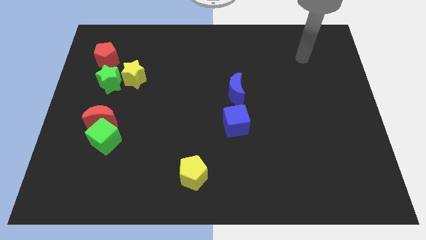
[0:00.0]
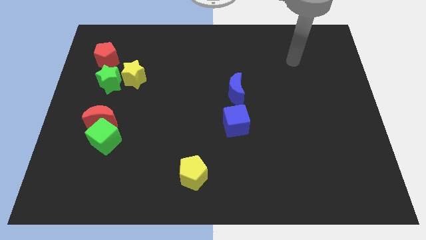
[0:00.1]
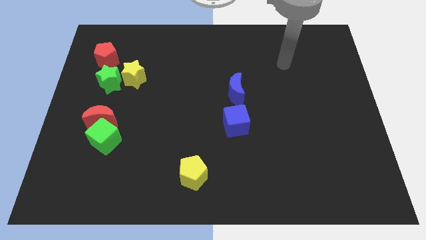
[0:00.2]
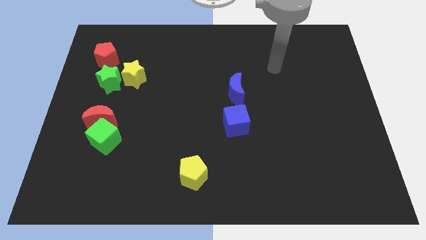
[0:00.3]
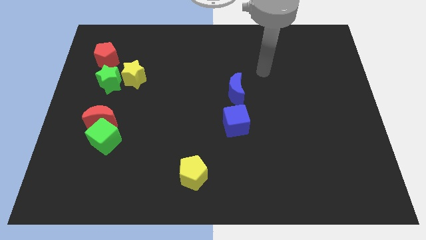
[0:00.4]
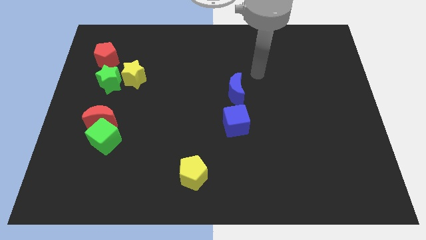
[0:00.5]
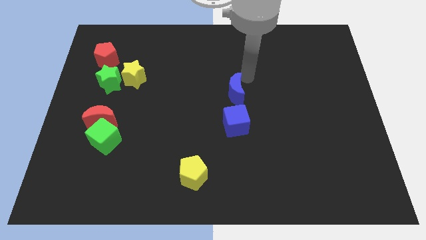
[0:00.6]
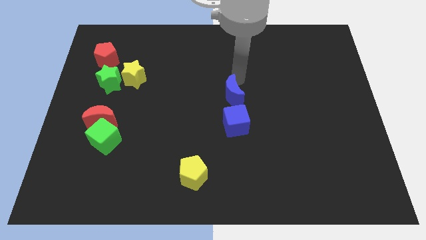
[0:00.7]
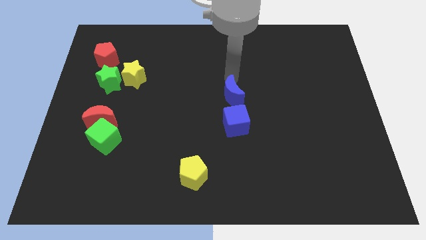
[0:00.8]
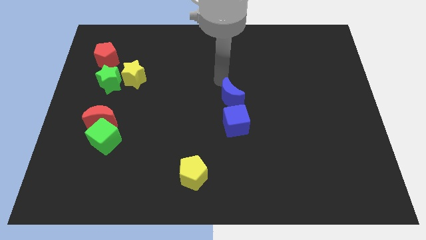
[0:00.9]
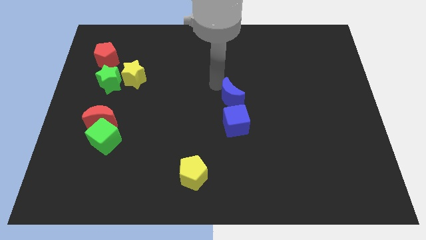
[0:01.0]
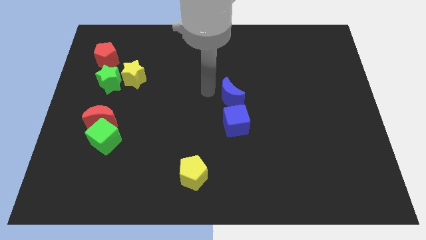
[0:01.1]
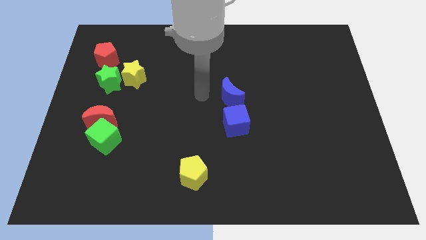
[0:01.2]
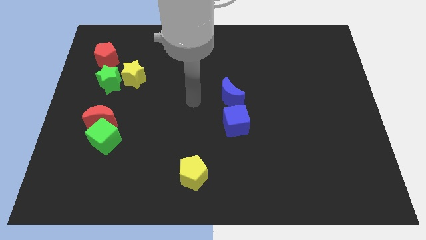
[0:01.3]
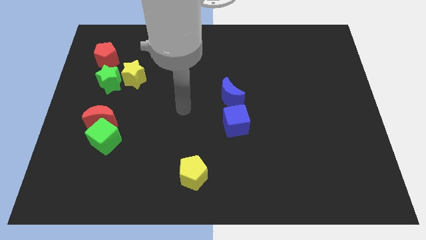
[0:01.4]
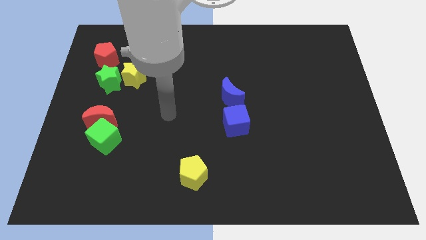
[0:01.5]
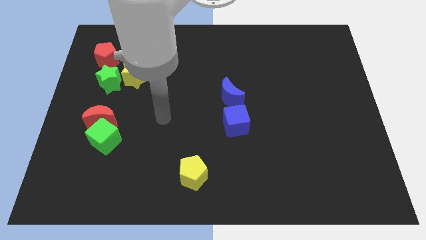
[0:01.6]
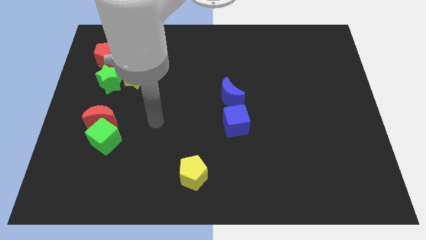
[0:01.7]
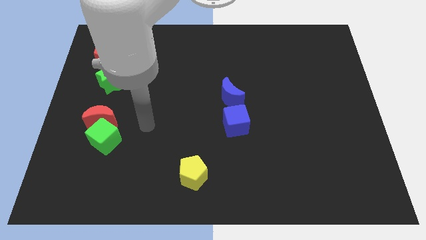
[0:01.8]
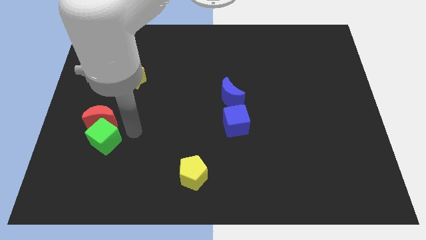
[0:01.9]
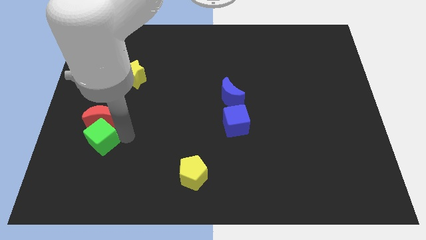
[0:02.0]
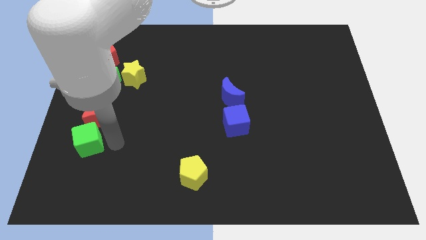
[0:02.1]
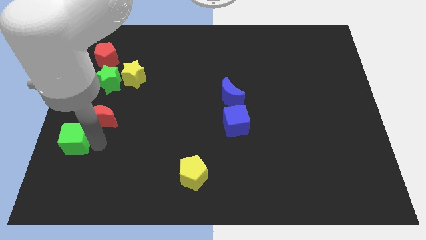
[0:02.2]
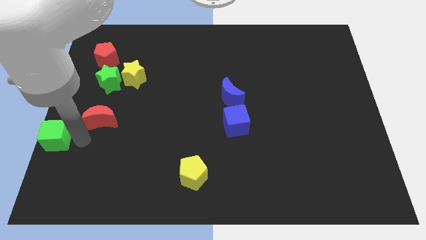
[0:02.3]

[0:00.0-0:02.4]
pull the red moon apart from the green cube

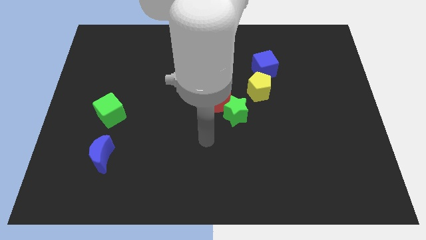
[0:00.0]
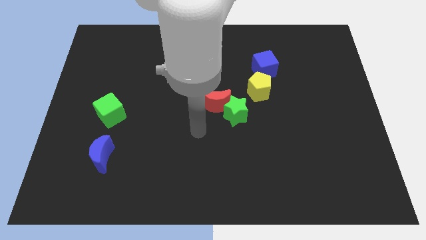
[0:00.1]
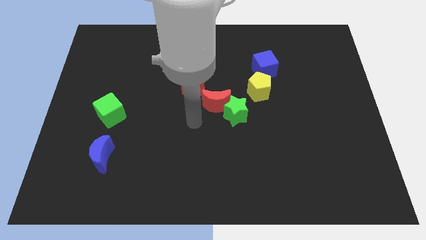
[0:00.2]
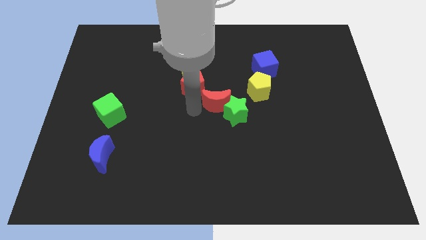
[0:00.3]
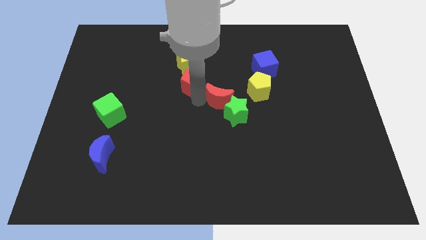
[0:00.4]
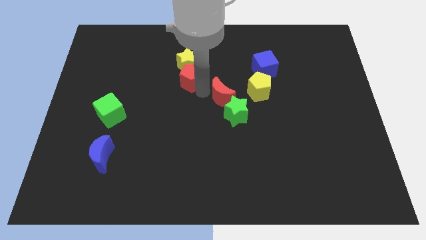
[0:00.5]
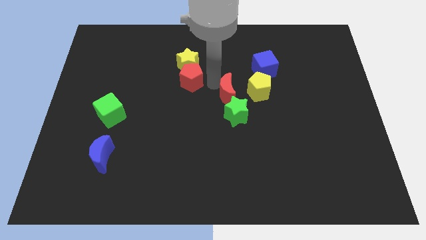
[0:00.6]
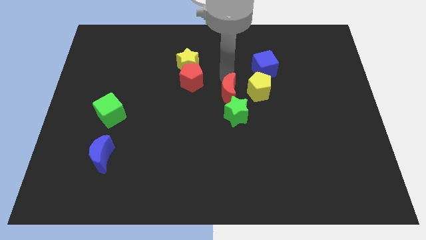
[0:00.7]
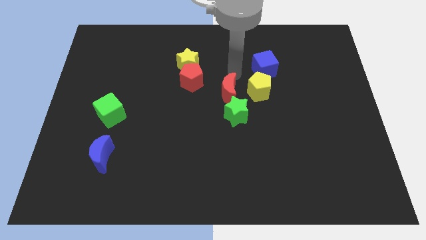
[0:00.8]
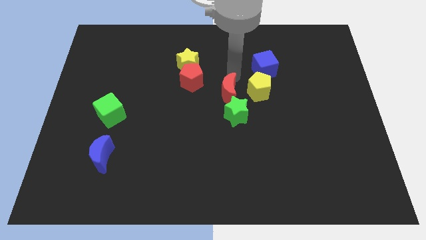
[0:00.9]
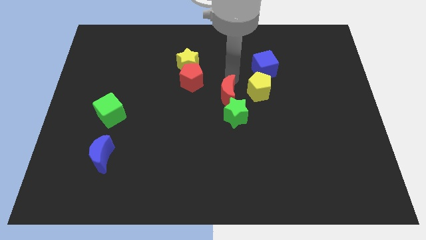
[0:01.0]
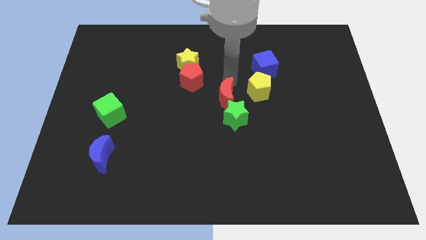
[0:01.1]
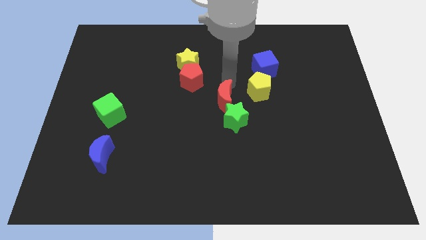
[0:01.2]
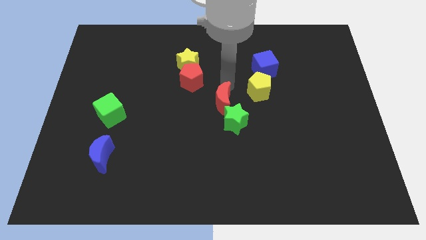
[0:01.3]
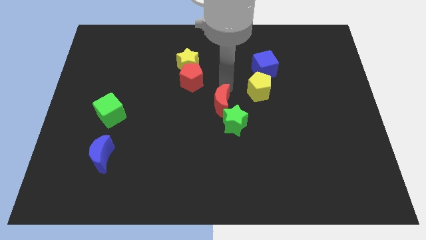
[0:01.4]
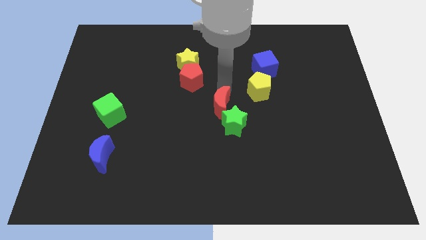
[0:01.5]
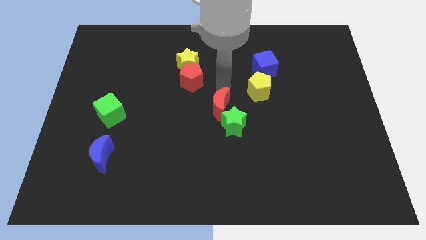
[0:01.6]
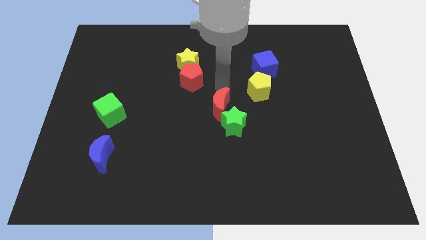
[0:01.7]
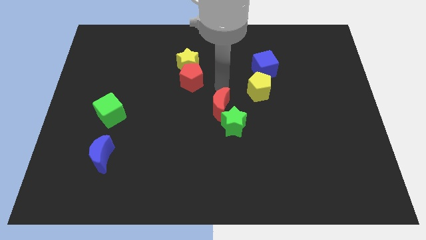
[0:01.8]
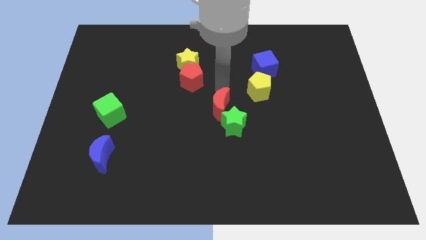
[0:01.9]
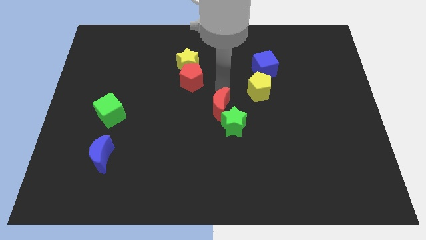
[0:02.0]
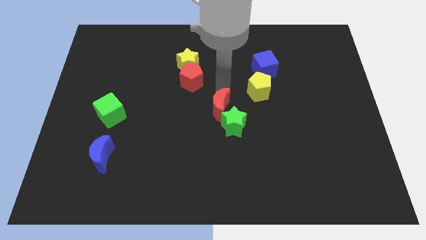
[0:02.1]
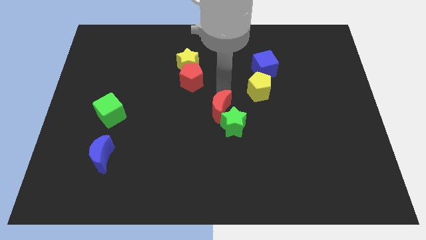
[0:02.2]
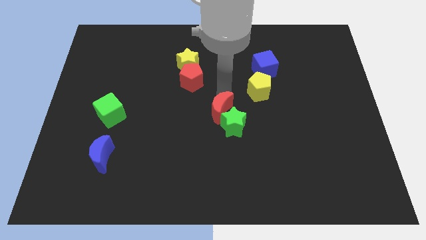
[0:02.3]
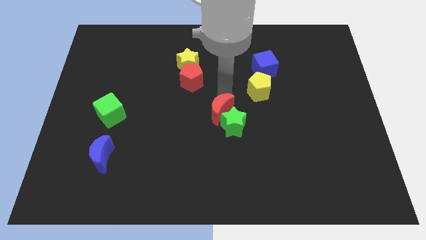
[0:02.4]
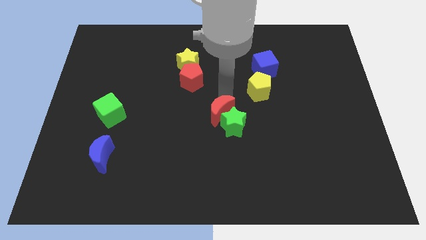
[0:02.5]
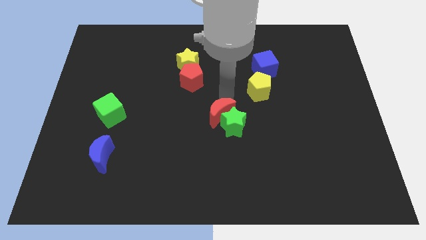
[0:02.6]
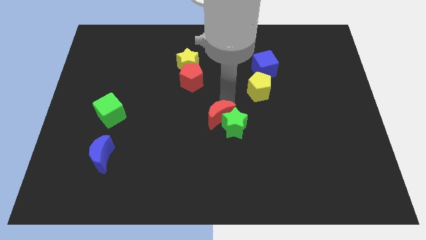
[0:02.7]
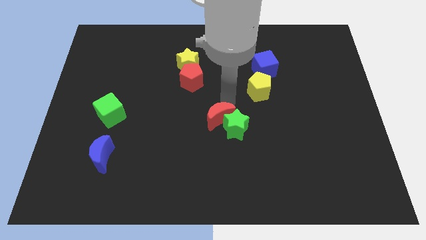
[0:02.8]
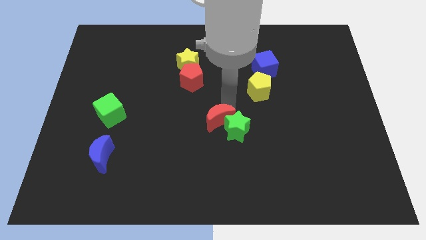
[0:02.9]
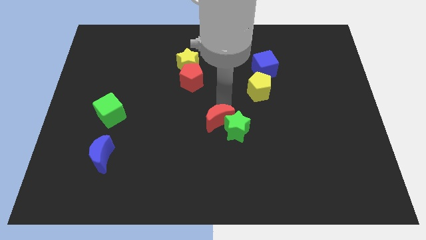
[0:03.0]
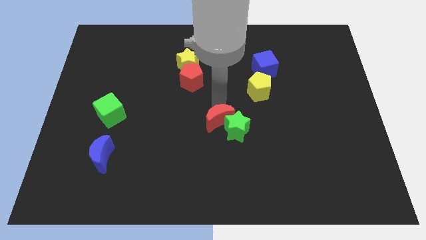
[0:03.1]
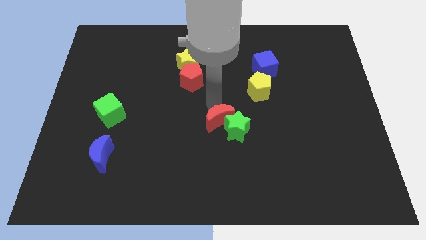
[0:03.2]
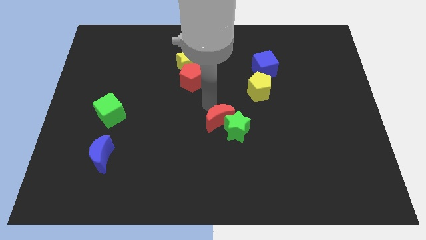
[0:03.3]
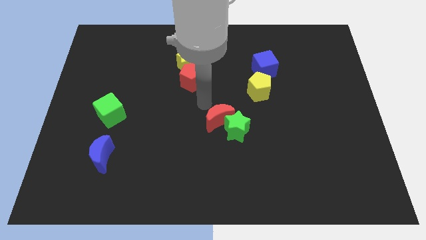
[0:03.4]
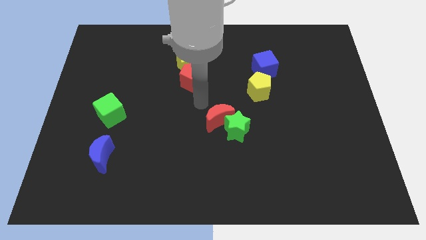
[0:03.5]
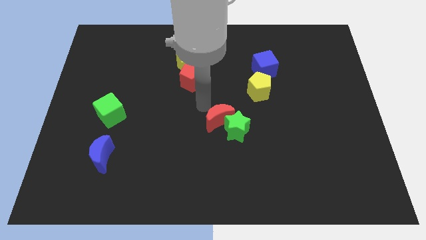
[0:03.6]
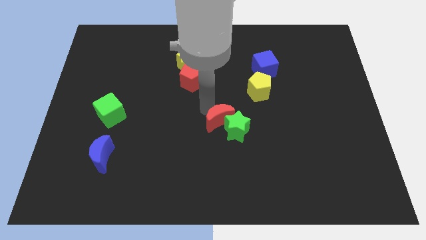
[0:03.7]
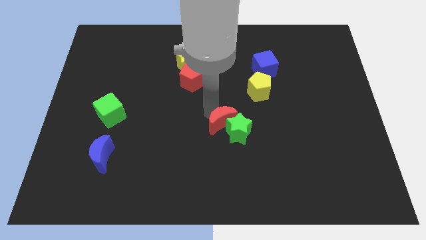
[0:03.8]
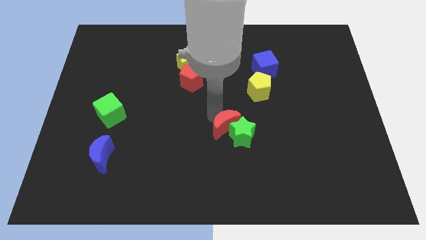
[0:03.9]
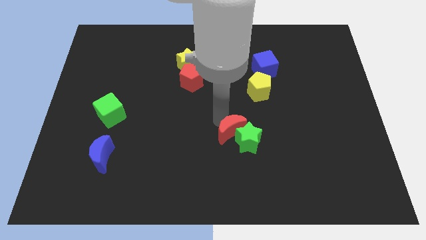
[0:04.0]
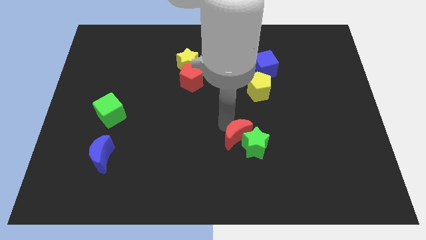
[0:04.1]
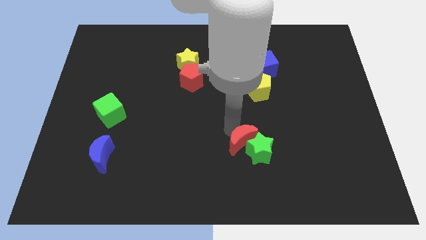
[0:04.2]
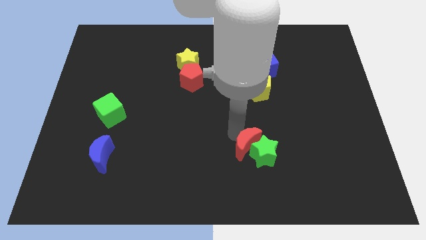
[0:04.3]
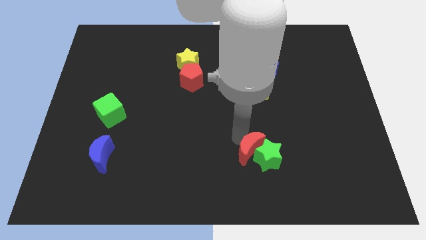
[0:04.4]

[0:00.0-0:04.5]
pull the red moon apart from the green star and red pentagon

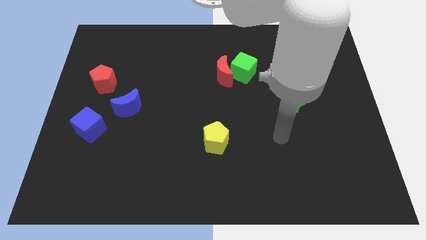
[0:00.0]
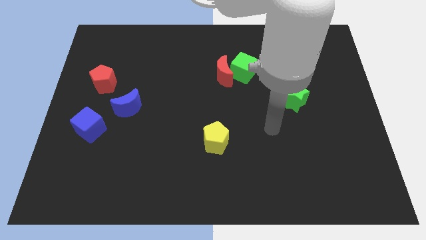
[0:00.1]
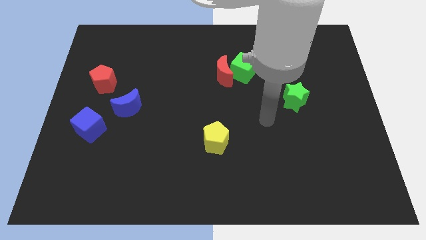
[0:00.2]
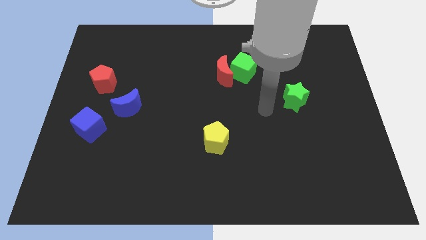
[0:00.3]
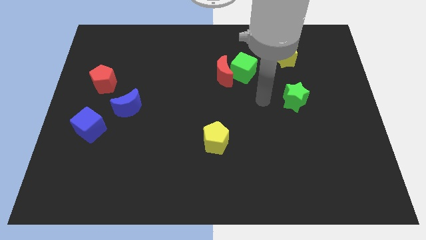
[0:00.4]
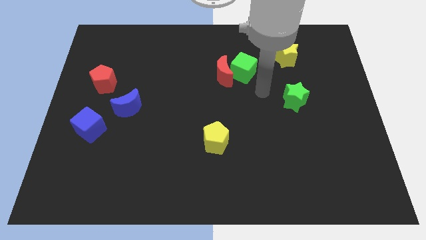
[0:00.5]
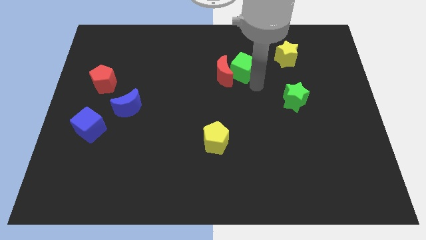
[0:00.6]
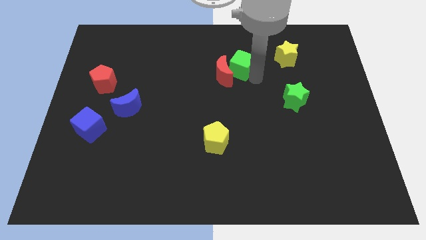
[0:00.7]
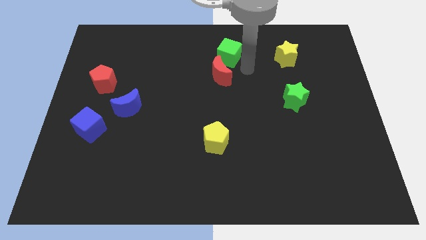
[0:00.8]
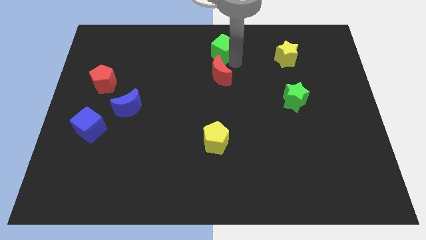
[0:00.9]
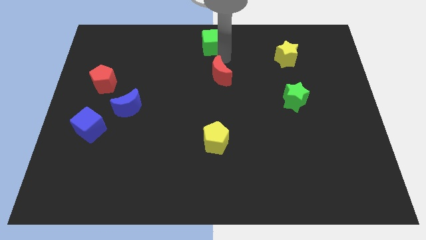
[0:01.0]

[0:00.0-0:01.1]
move the red moon away from the green cube

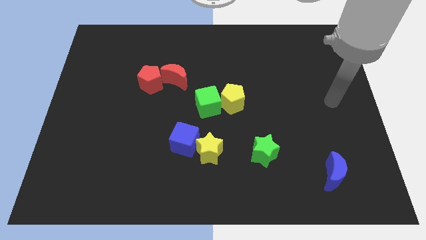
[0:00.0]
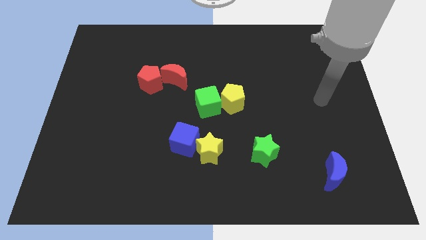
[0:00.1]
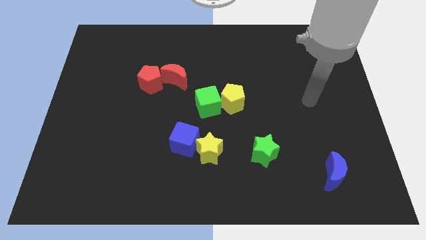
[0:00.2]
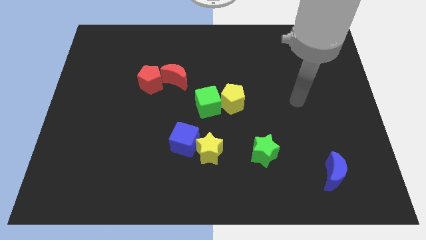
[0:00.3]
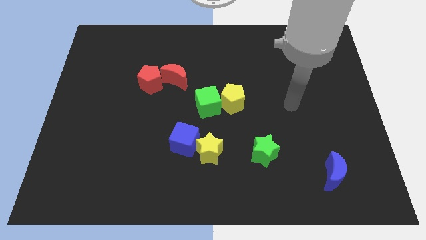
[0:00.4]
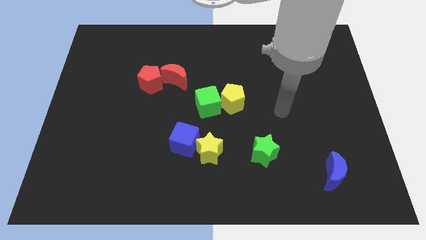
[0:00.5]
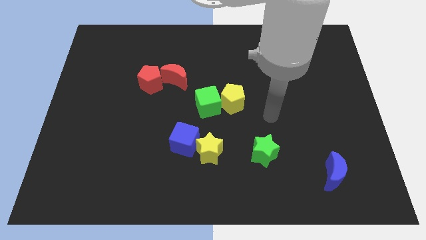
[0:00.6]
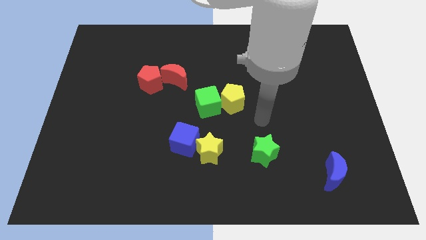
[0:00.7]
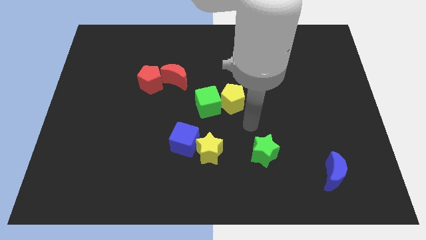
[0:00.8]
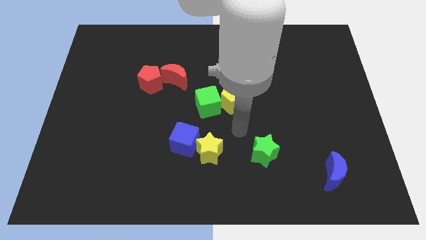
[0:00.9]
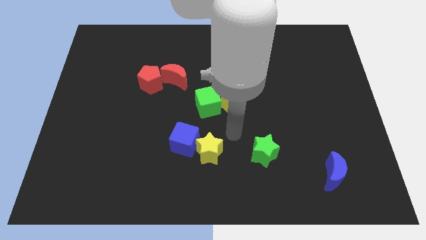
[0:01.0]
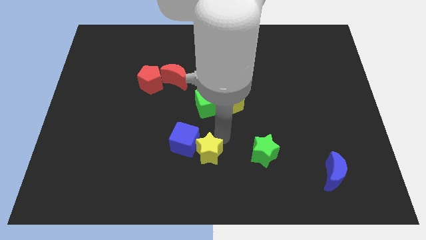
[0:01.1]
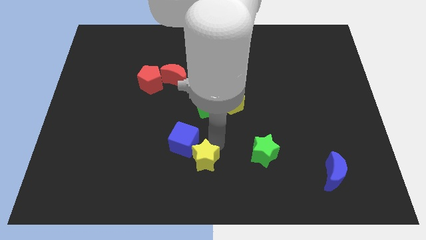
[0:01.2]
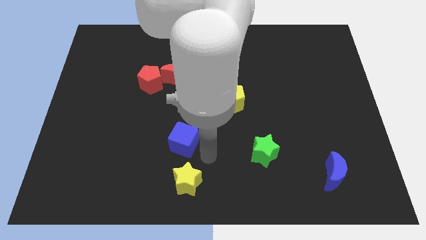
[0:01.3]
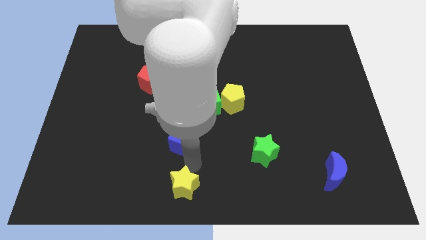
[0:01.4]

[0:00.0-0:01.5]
pull the blue cube apart from the yellow star
